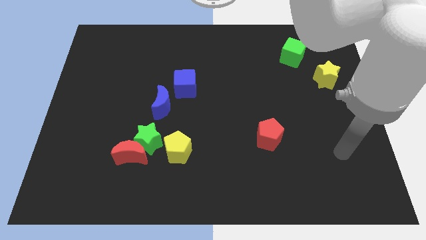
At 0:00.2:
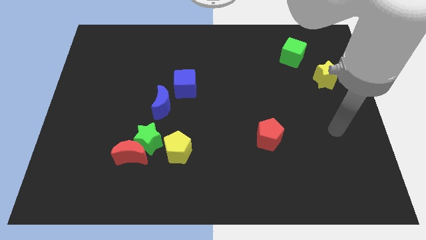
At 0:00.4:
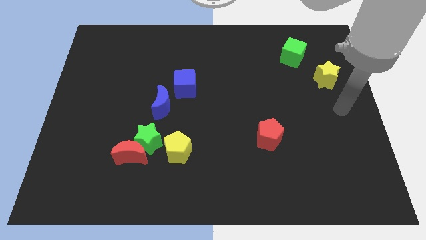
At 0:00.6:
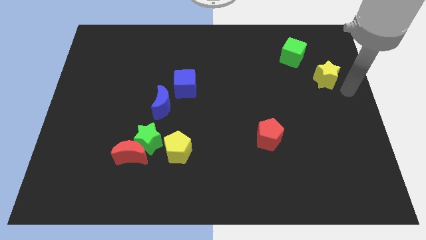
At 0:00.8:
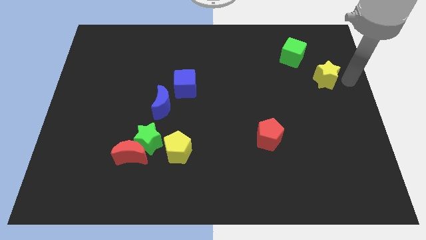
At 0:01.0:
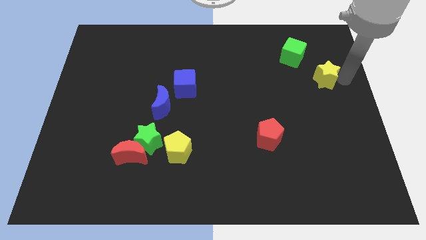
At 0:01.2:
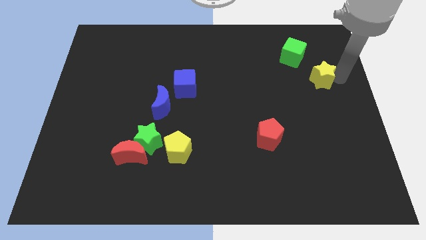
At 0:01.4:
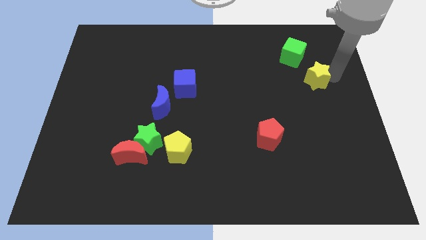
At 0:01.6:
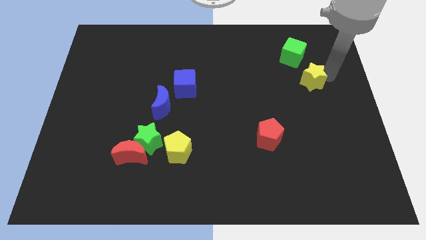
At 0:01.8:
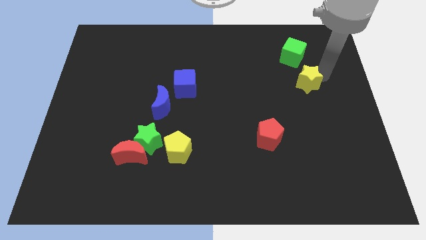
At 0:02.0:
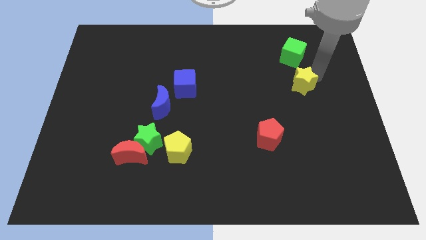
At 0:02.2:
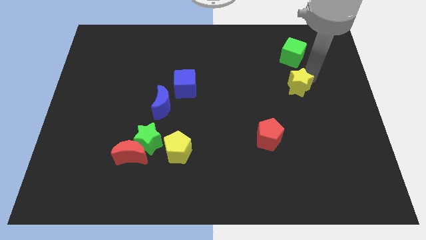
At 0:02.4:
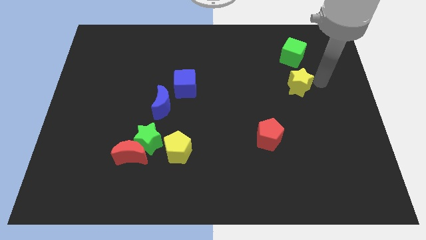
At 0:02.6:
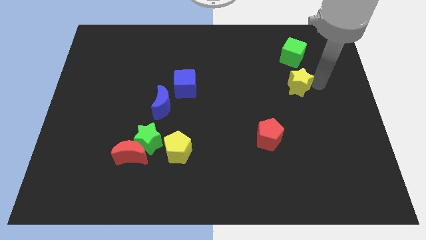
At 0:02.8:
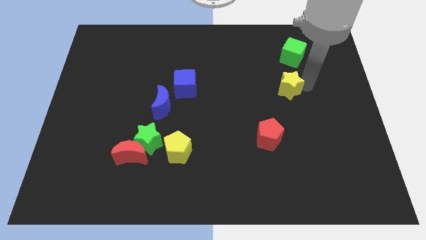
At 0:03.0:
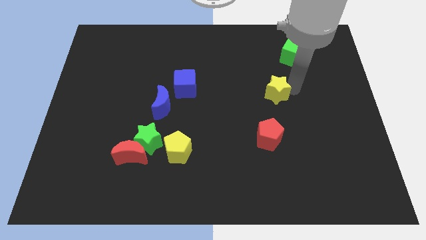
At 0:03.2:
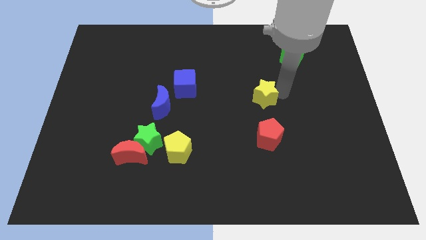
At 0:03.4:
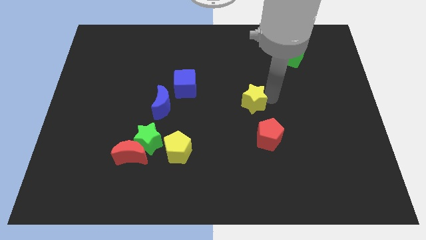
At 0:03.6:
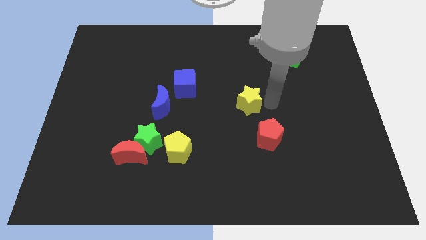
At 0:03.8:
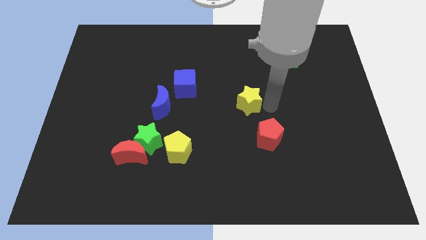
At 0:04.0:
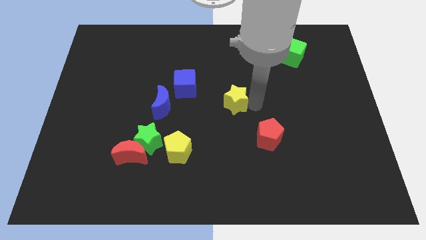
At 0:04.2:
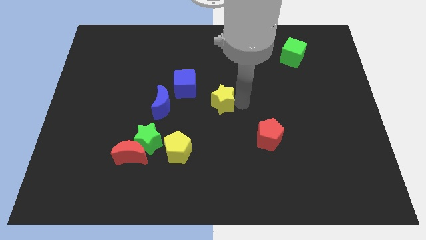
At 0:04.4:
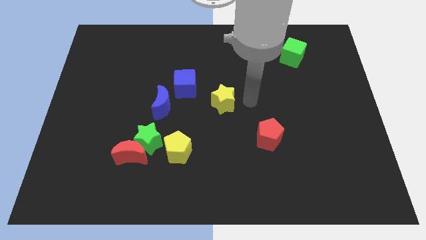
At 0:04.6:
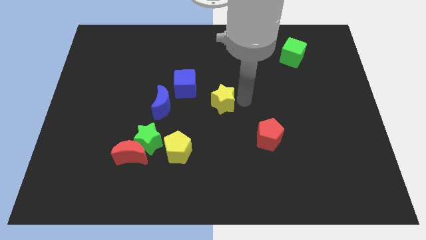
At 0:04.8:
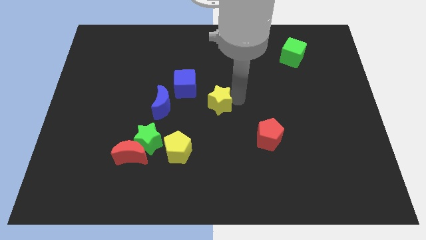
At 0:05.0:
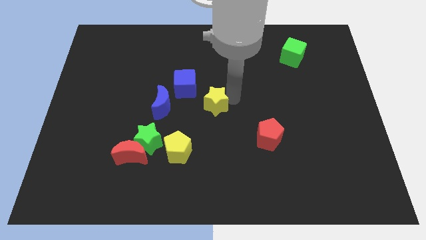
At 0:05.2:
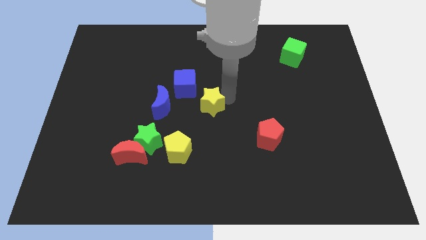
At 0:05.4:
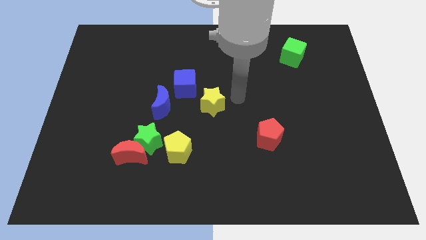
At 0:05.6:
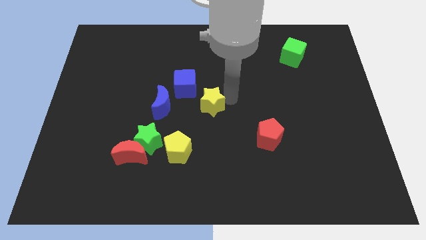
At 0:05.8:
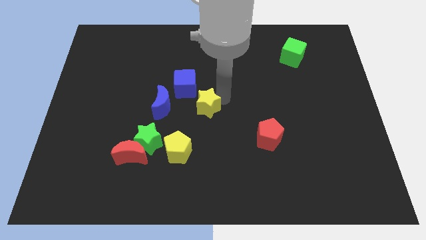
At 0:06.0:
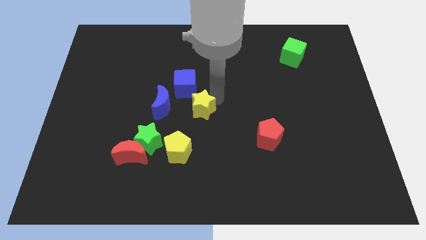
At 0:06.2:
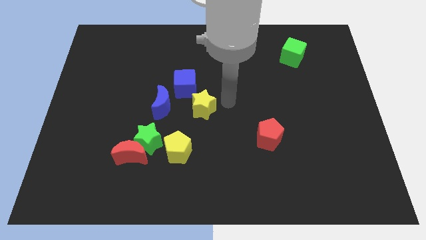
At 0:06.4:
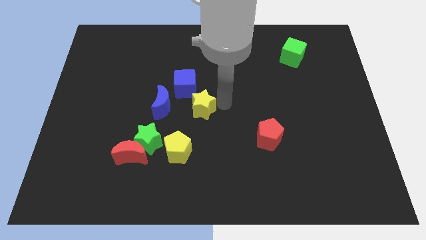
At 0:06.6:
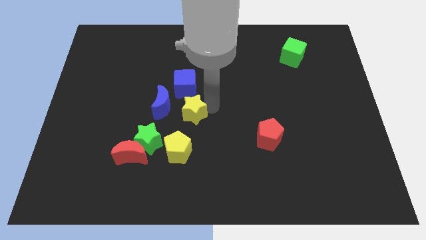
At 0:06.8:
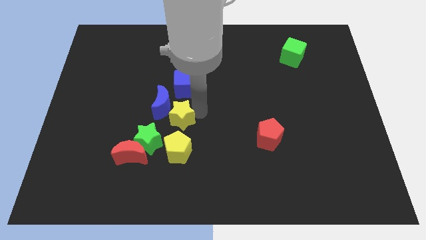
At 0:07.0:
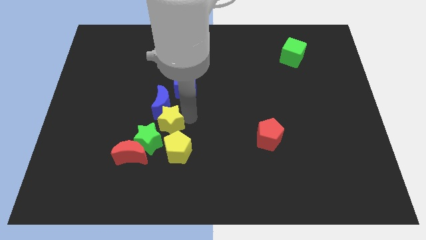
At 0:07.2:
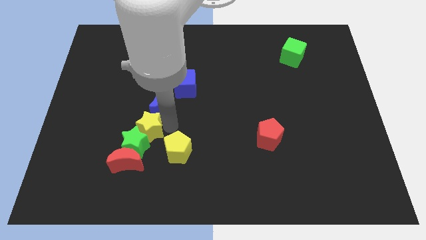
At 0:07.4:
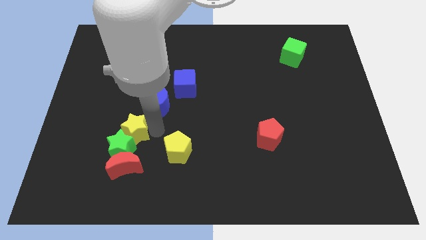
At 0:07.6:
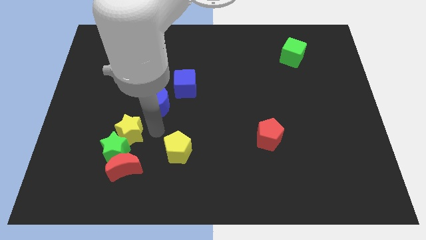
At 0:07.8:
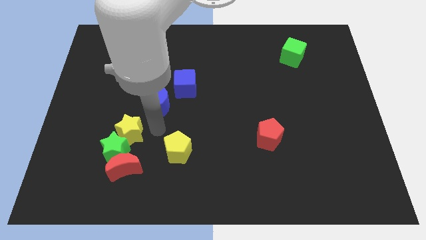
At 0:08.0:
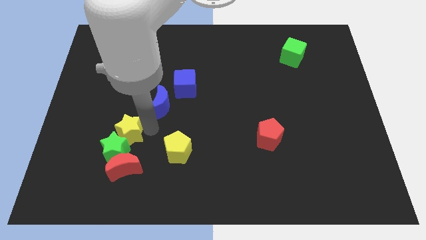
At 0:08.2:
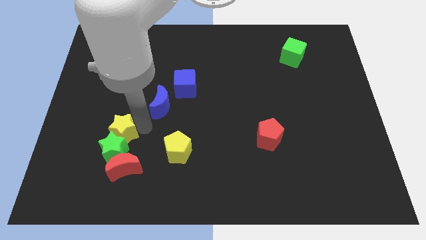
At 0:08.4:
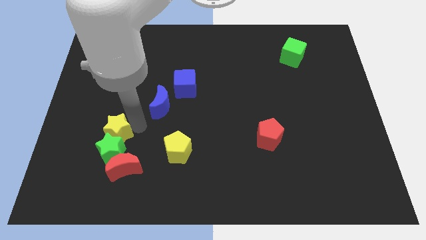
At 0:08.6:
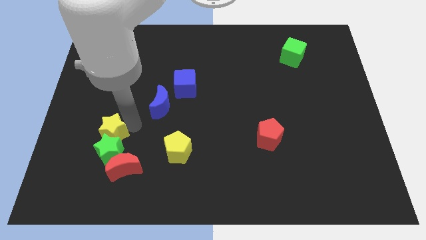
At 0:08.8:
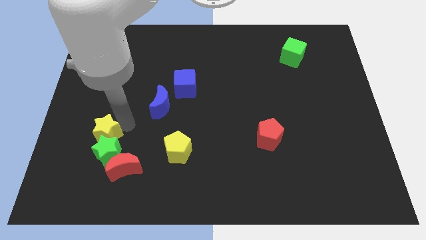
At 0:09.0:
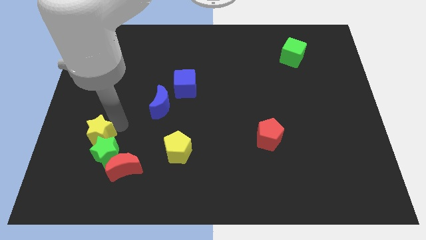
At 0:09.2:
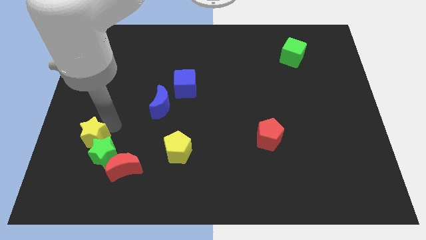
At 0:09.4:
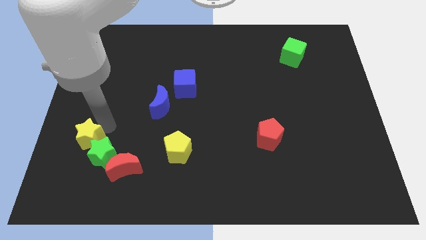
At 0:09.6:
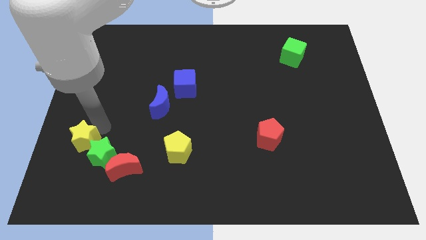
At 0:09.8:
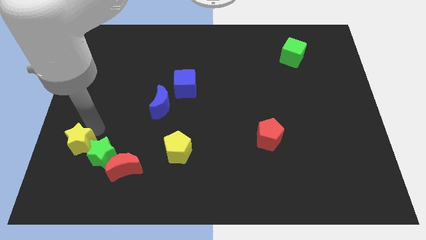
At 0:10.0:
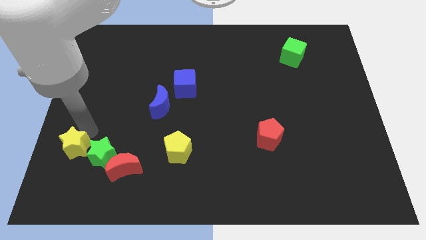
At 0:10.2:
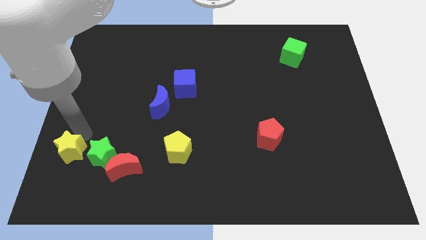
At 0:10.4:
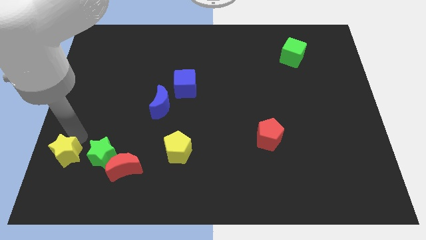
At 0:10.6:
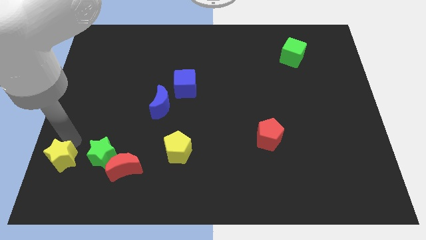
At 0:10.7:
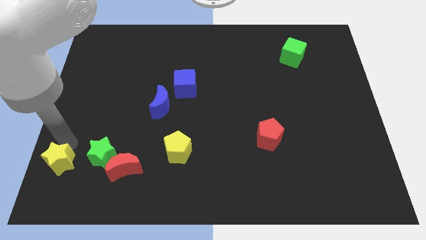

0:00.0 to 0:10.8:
push the yellow star to the bottom left

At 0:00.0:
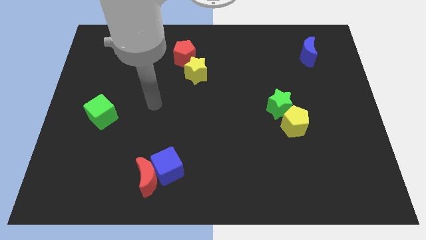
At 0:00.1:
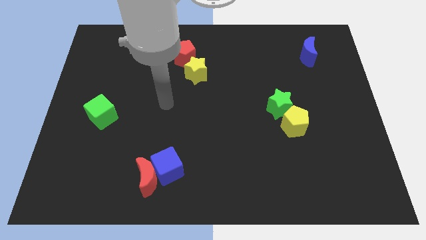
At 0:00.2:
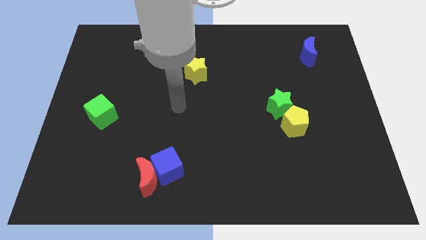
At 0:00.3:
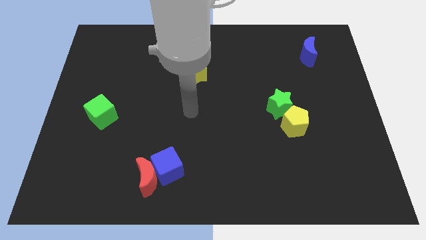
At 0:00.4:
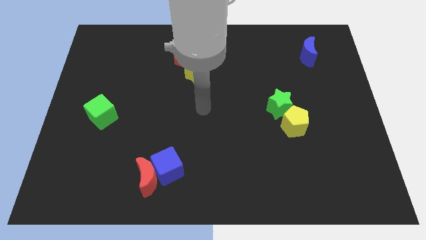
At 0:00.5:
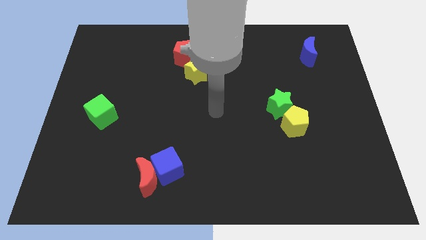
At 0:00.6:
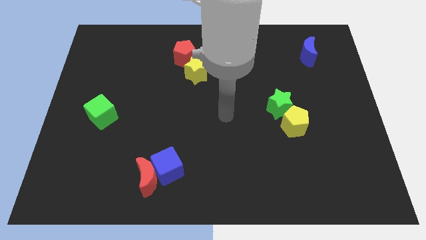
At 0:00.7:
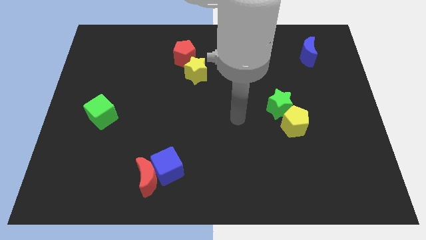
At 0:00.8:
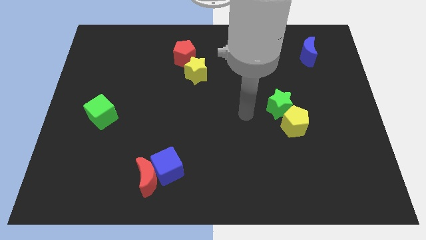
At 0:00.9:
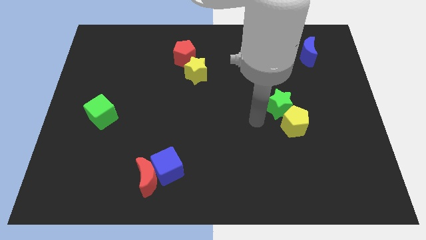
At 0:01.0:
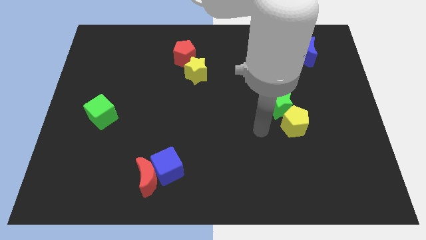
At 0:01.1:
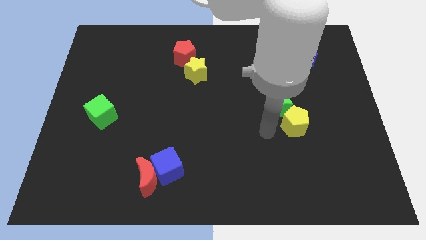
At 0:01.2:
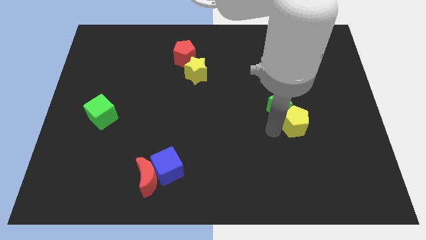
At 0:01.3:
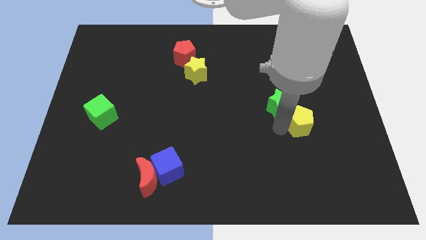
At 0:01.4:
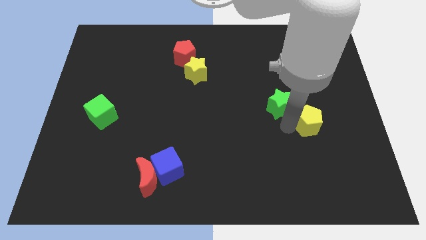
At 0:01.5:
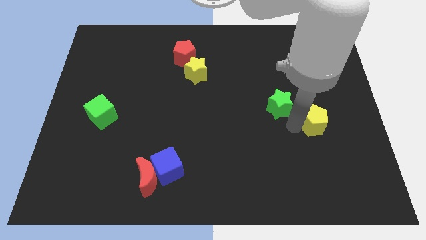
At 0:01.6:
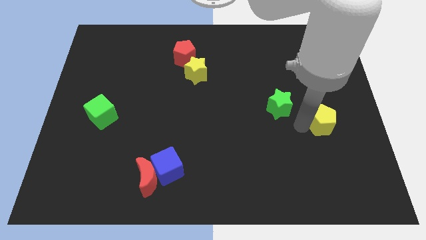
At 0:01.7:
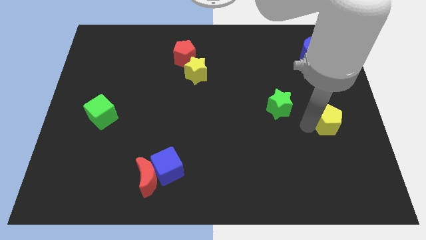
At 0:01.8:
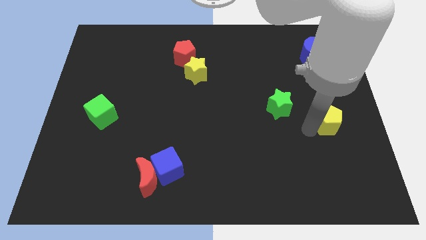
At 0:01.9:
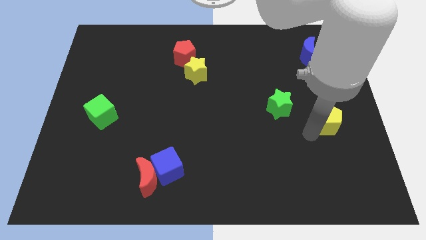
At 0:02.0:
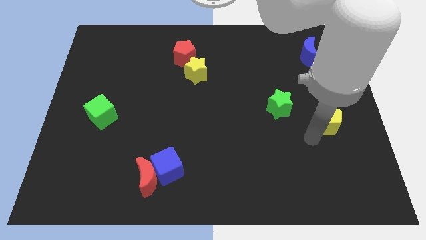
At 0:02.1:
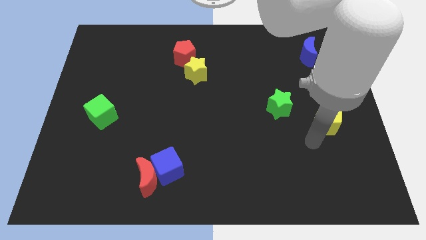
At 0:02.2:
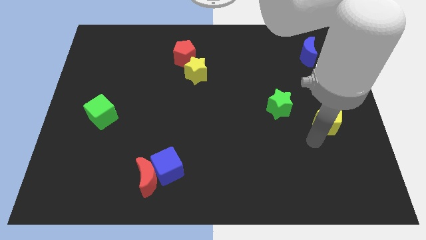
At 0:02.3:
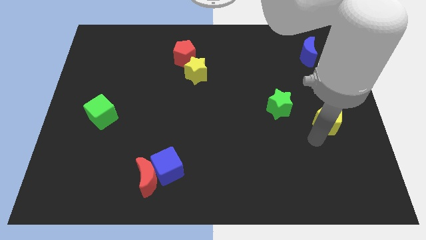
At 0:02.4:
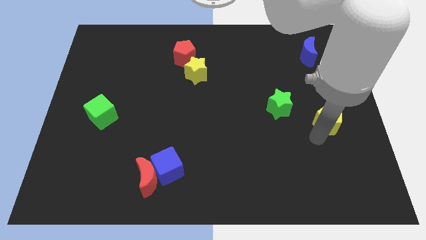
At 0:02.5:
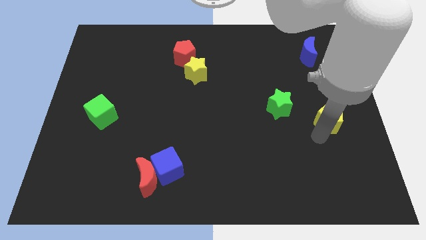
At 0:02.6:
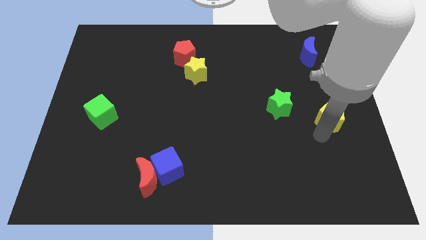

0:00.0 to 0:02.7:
move the yellow pentagon to the right side of the board
